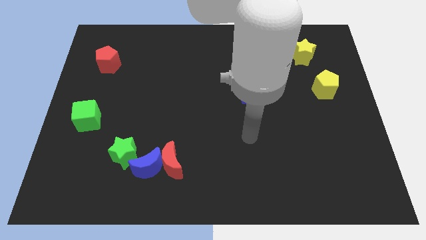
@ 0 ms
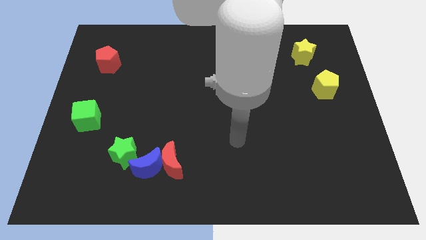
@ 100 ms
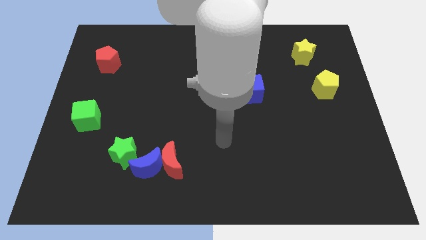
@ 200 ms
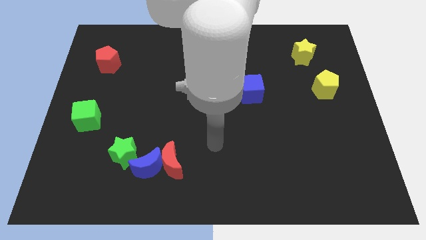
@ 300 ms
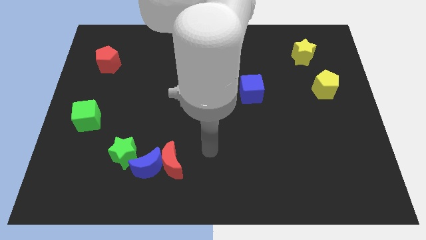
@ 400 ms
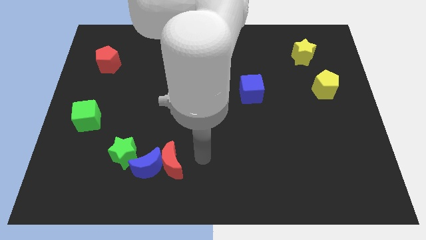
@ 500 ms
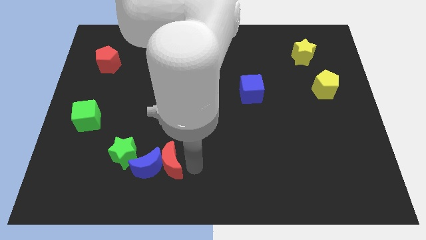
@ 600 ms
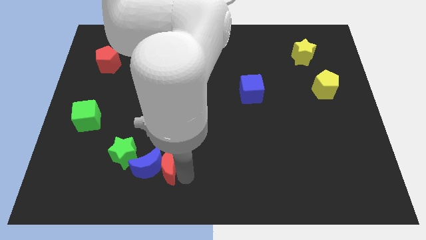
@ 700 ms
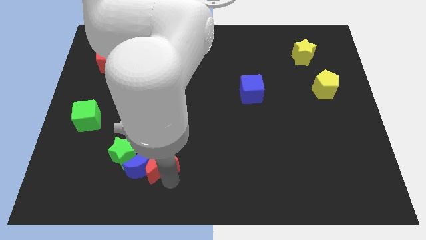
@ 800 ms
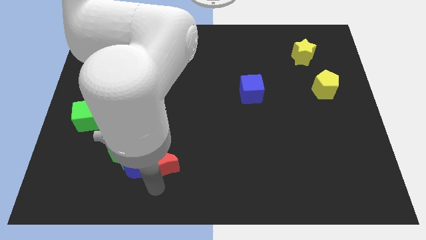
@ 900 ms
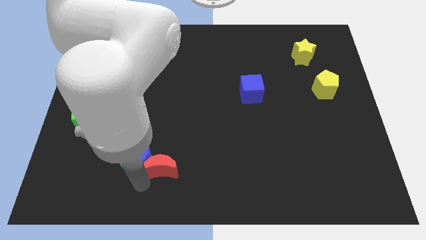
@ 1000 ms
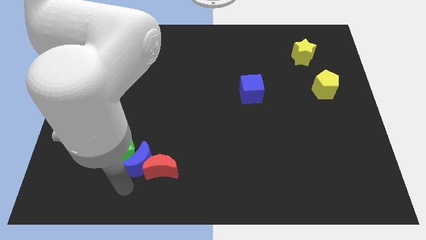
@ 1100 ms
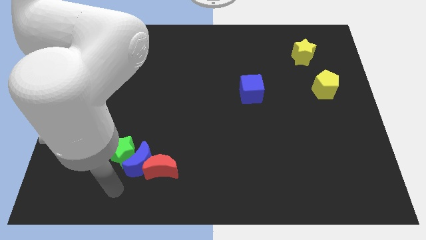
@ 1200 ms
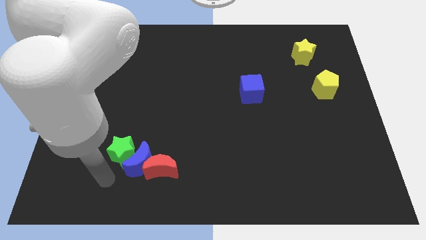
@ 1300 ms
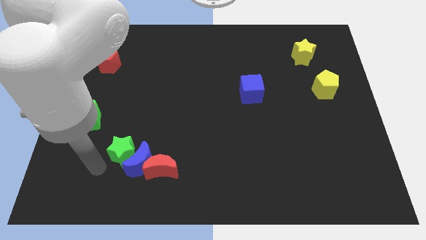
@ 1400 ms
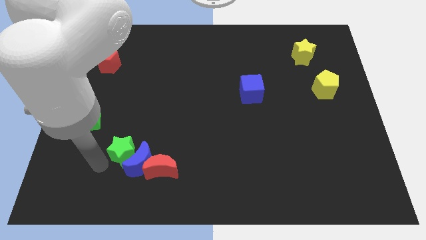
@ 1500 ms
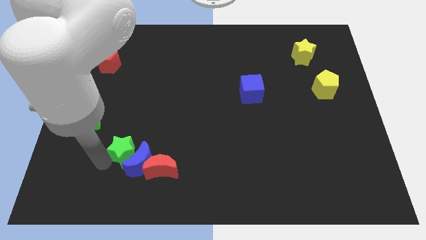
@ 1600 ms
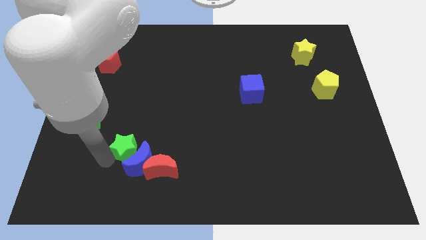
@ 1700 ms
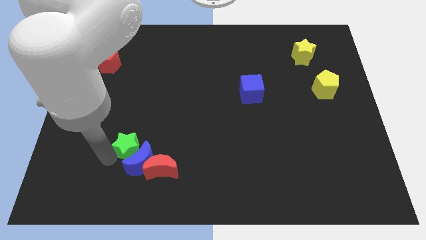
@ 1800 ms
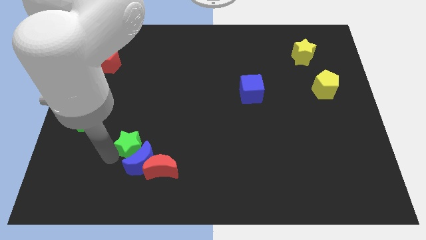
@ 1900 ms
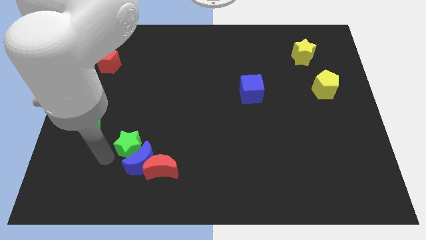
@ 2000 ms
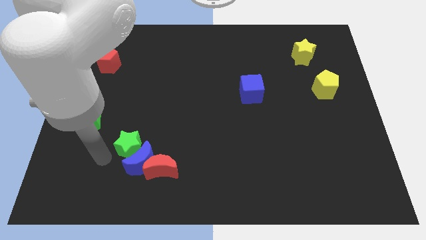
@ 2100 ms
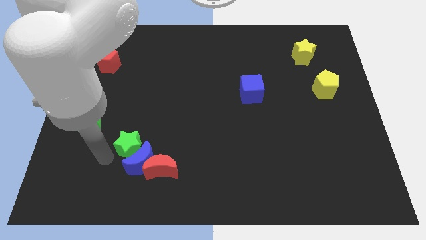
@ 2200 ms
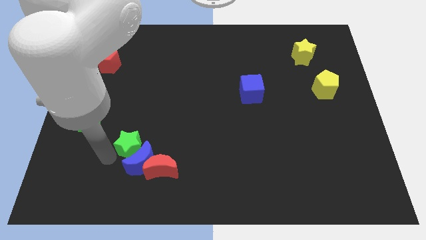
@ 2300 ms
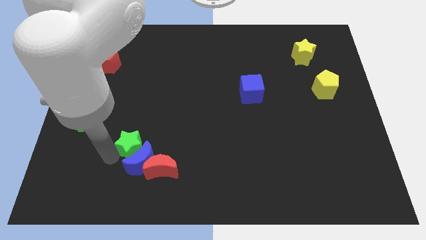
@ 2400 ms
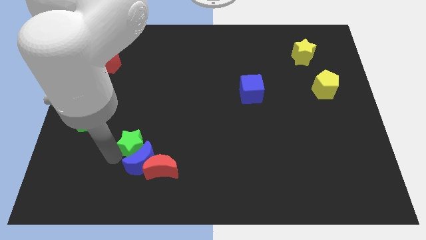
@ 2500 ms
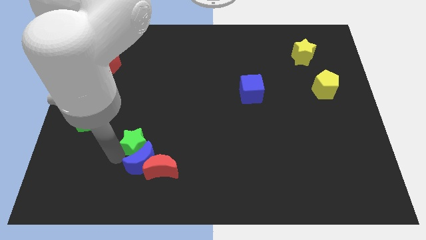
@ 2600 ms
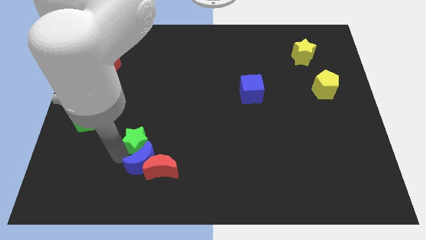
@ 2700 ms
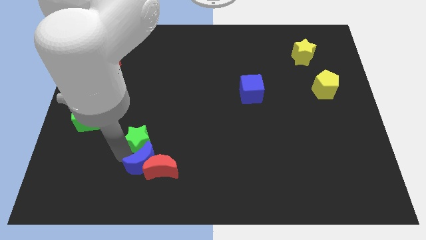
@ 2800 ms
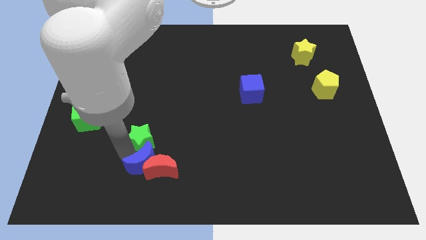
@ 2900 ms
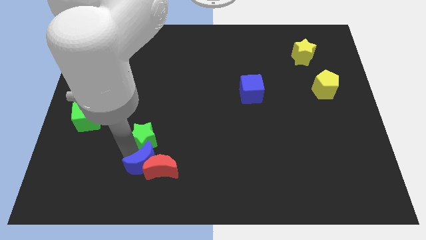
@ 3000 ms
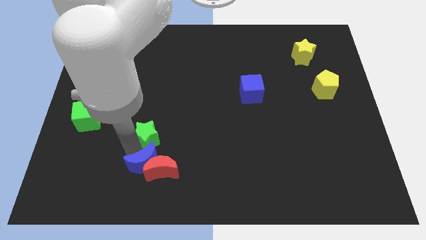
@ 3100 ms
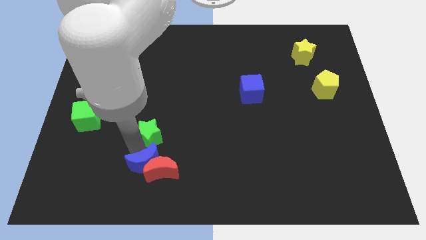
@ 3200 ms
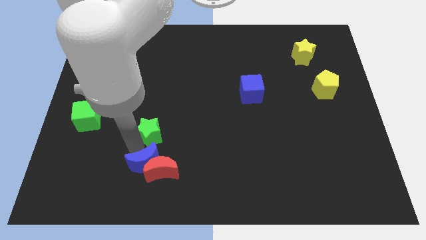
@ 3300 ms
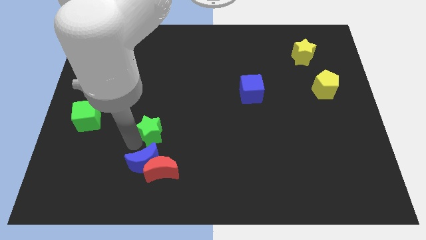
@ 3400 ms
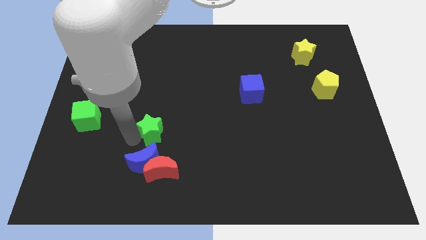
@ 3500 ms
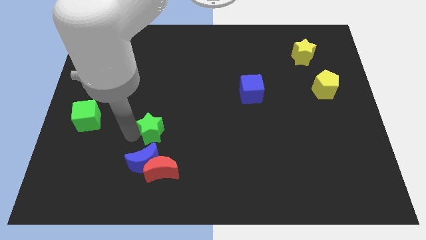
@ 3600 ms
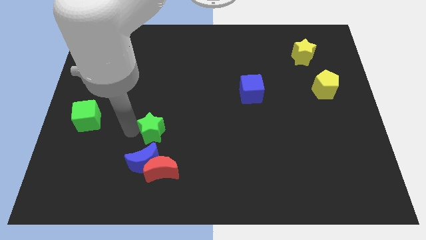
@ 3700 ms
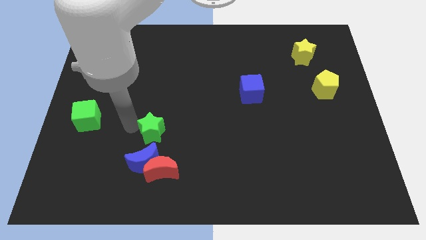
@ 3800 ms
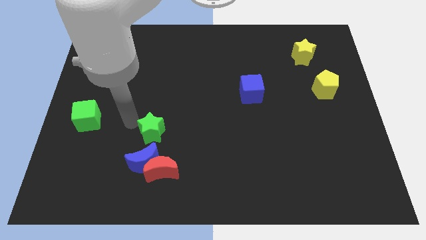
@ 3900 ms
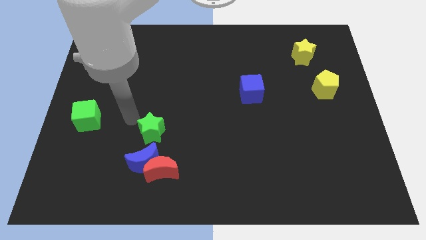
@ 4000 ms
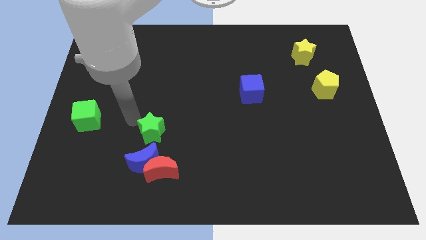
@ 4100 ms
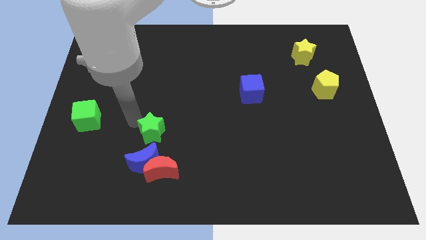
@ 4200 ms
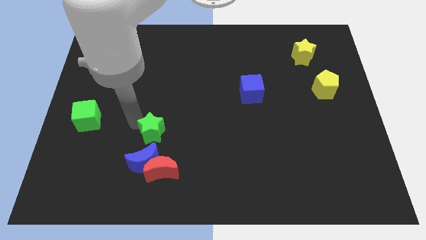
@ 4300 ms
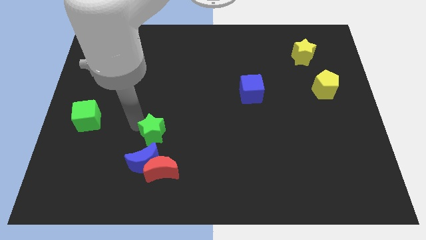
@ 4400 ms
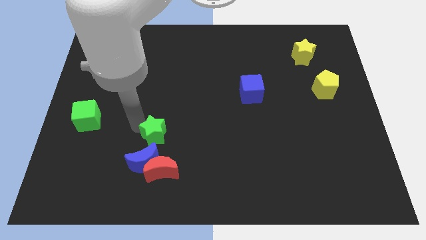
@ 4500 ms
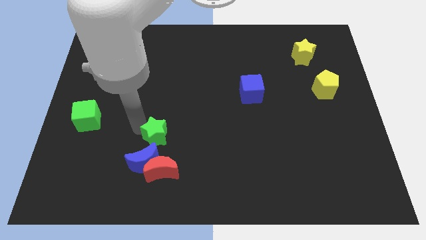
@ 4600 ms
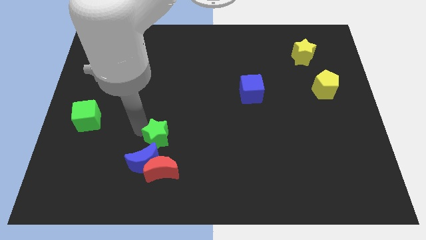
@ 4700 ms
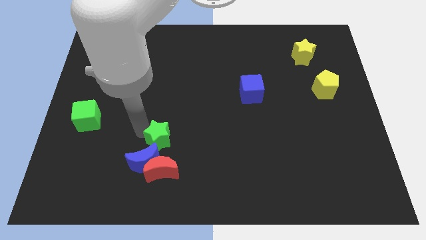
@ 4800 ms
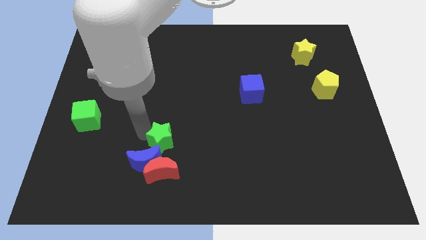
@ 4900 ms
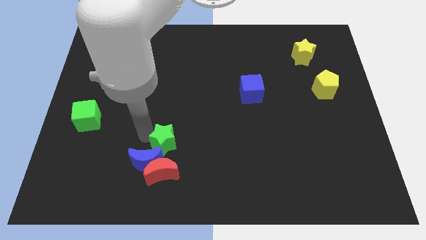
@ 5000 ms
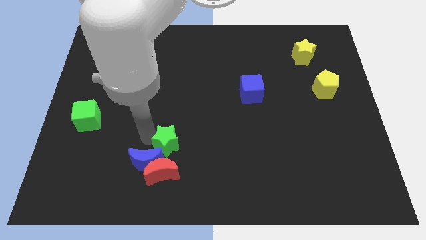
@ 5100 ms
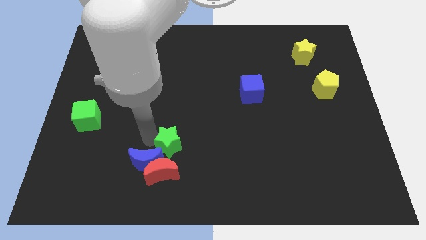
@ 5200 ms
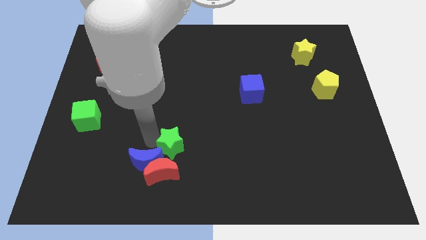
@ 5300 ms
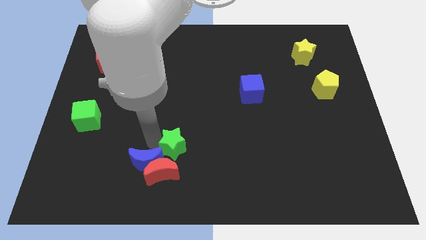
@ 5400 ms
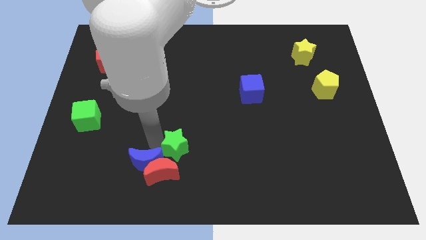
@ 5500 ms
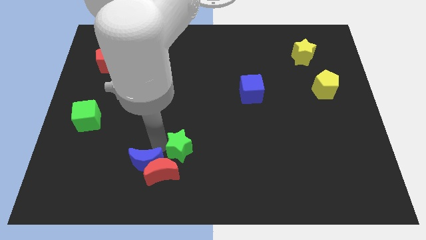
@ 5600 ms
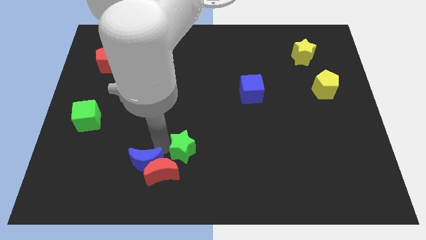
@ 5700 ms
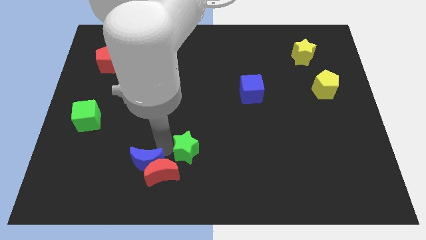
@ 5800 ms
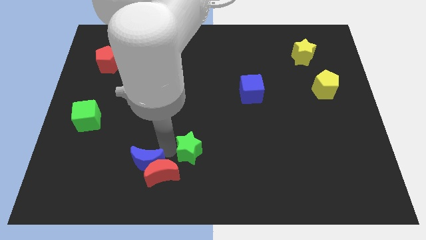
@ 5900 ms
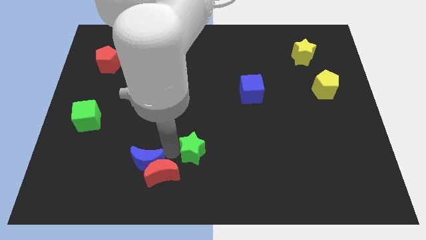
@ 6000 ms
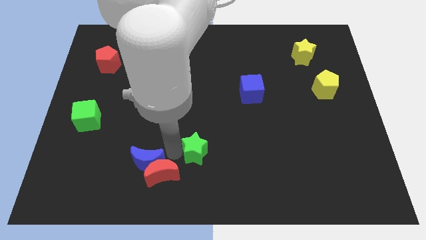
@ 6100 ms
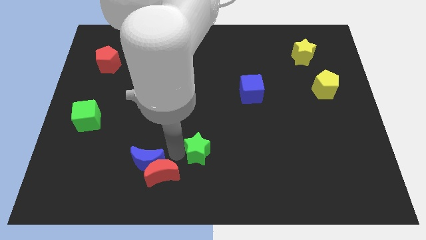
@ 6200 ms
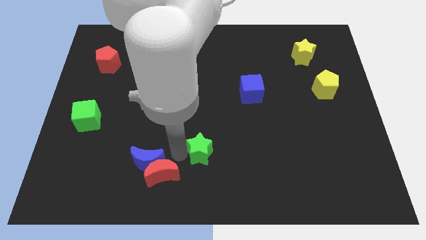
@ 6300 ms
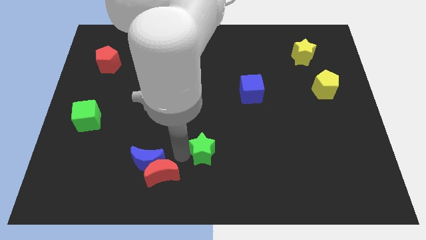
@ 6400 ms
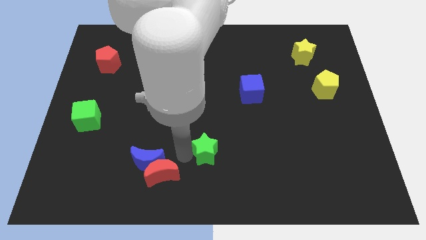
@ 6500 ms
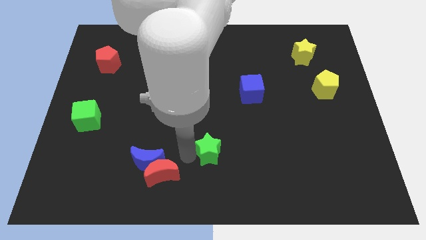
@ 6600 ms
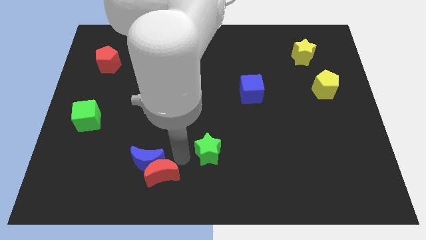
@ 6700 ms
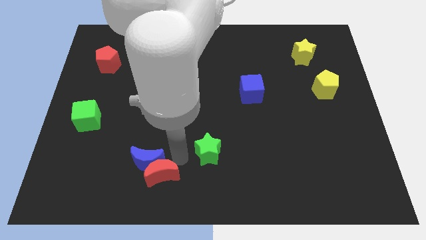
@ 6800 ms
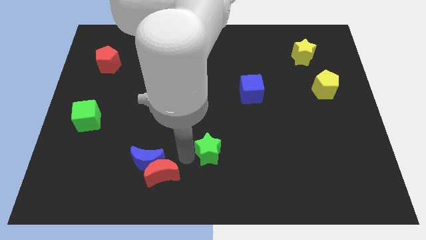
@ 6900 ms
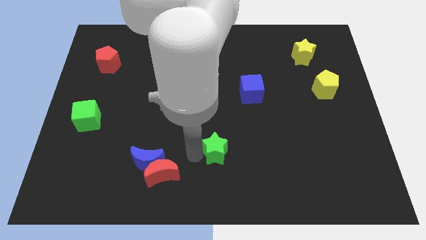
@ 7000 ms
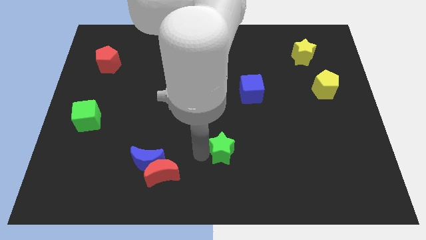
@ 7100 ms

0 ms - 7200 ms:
slide the green star to the right

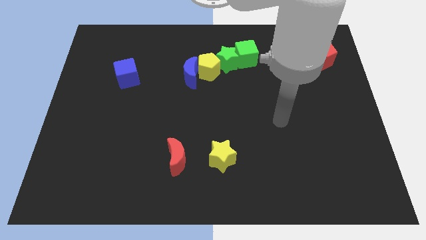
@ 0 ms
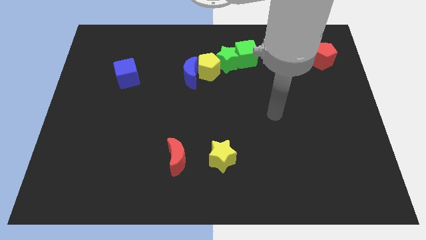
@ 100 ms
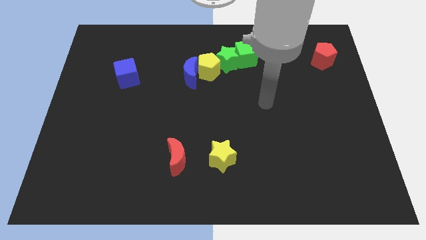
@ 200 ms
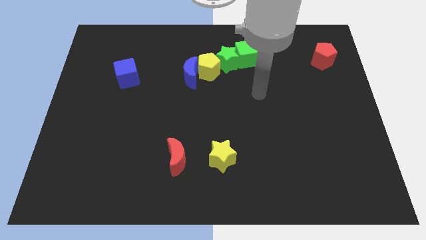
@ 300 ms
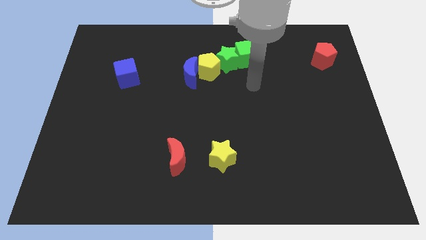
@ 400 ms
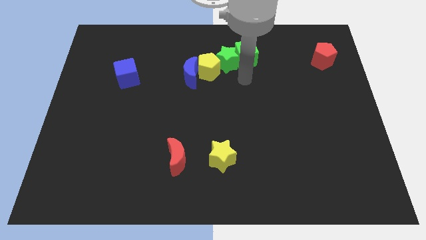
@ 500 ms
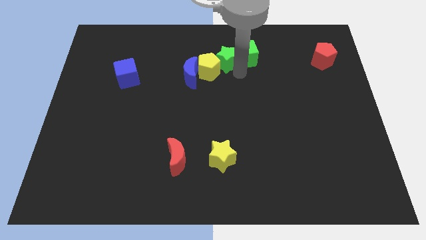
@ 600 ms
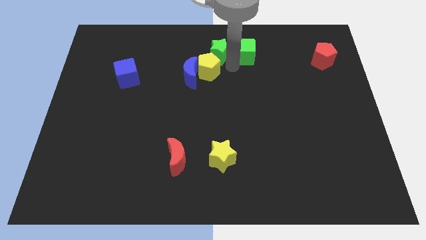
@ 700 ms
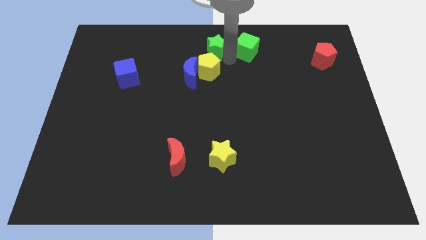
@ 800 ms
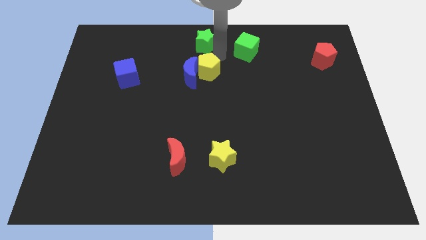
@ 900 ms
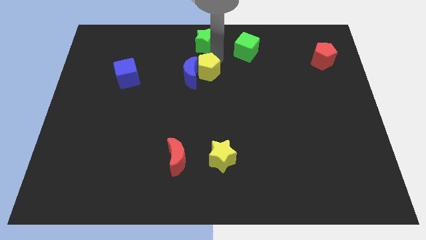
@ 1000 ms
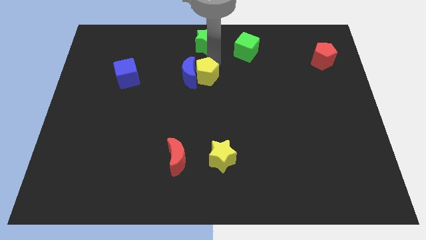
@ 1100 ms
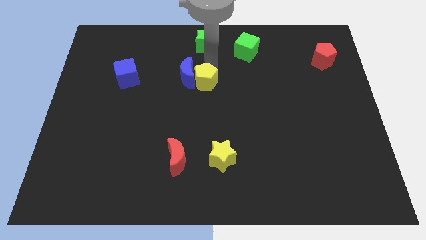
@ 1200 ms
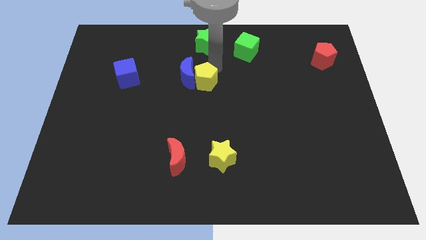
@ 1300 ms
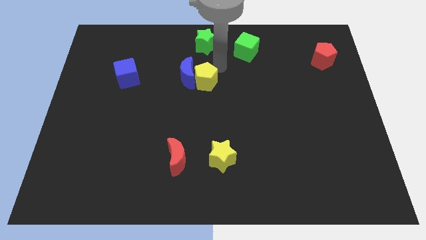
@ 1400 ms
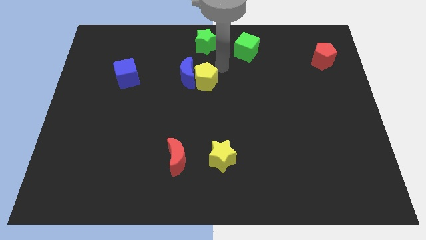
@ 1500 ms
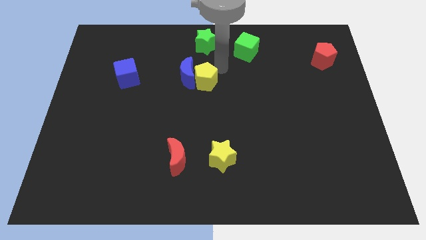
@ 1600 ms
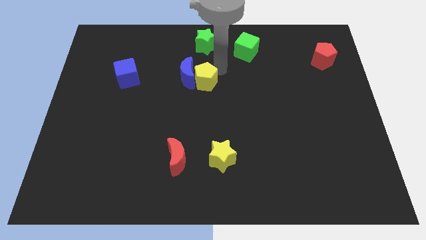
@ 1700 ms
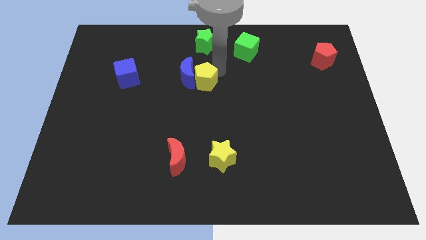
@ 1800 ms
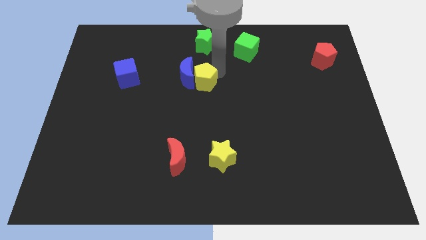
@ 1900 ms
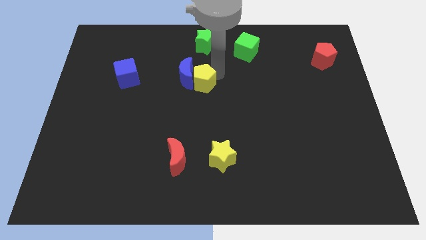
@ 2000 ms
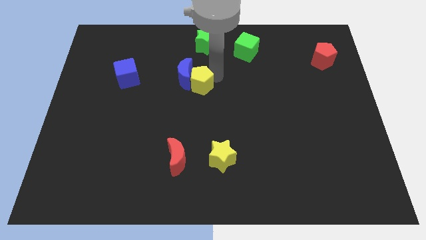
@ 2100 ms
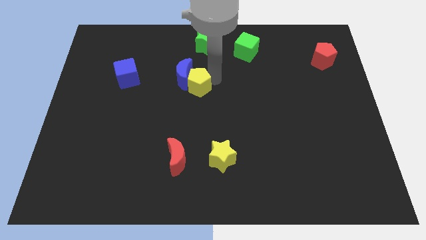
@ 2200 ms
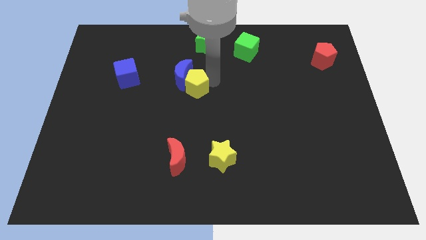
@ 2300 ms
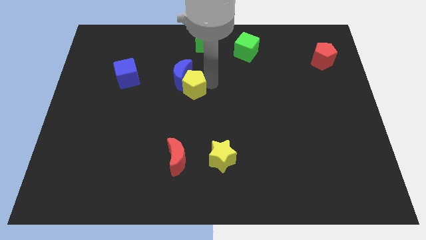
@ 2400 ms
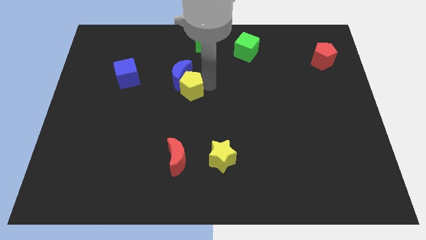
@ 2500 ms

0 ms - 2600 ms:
push the yellow pentagon slightly down and then to the left
